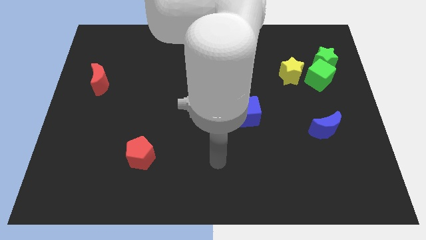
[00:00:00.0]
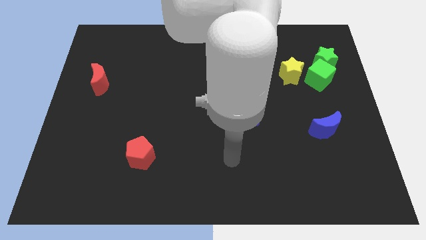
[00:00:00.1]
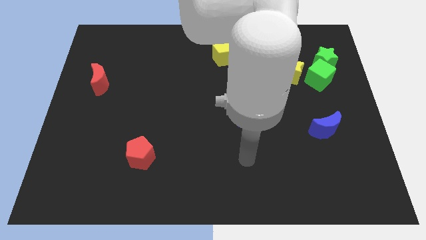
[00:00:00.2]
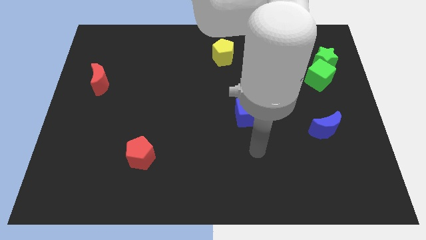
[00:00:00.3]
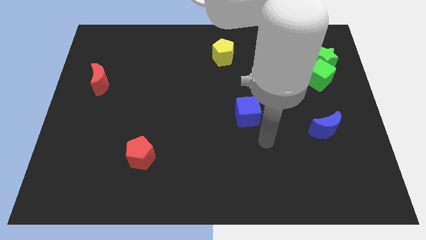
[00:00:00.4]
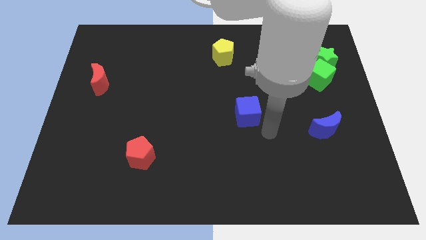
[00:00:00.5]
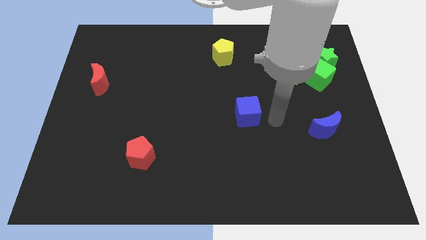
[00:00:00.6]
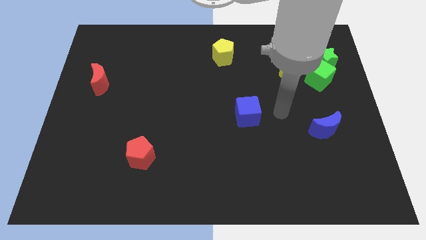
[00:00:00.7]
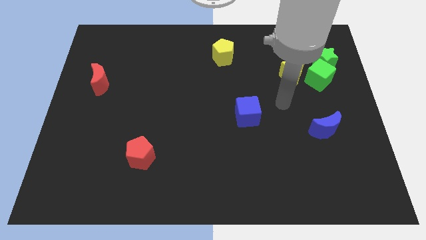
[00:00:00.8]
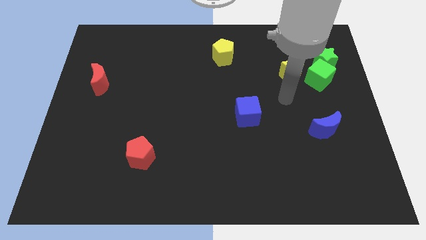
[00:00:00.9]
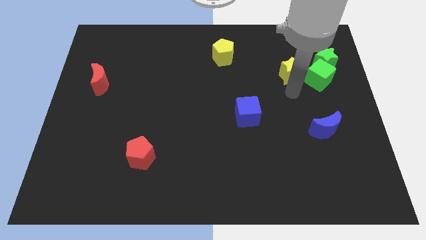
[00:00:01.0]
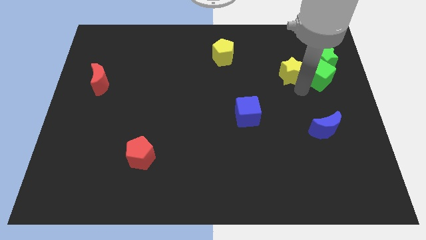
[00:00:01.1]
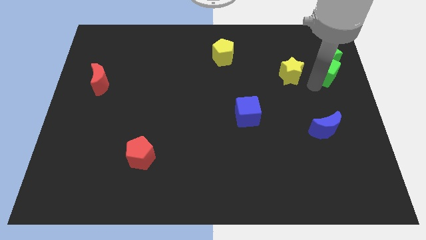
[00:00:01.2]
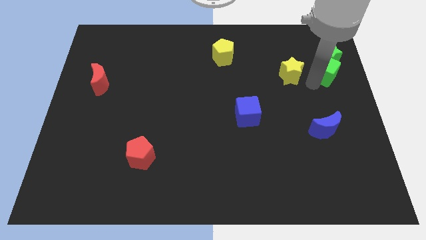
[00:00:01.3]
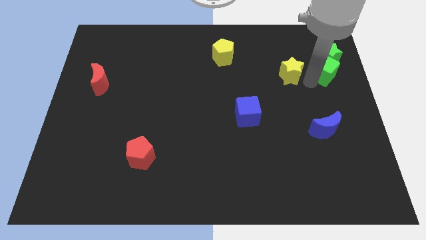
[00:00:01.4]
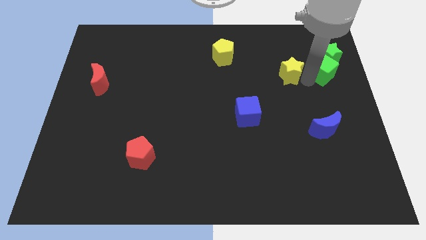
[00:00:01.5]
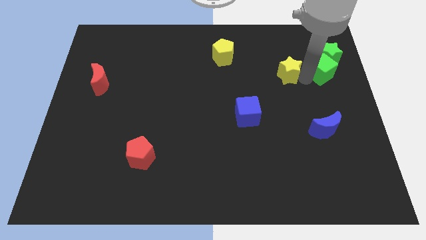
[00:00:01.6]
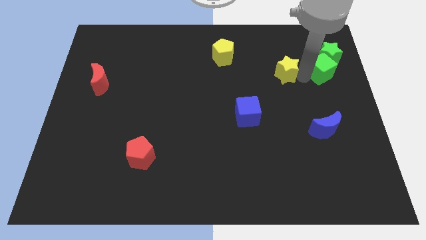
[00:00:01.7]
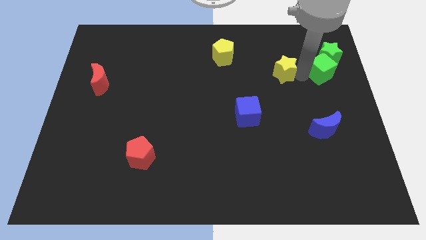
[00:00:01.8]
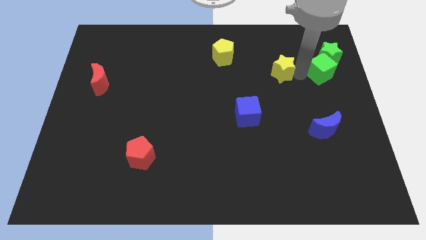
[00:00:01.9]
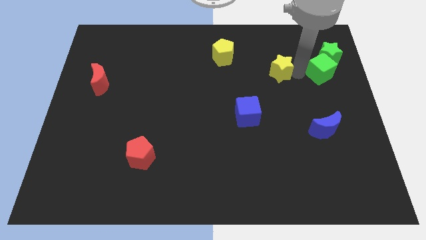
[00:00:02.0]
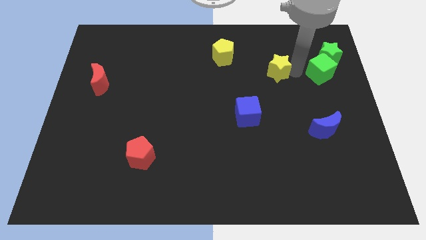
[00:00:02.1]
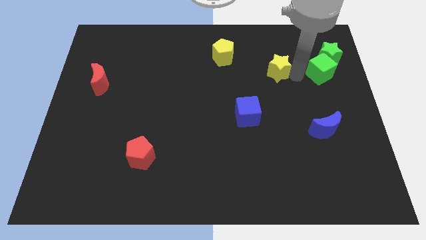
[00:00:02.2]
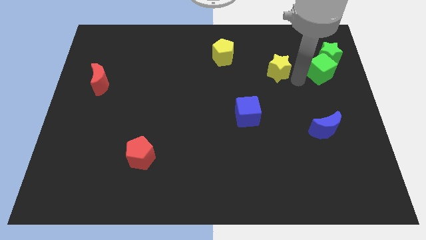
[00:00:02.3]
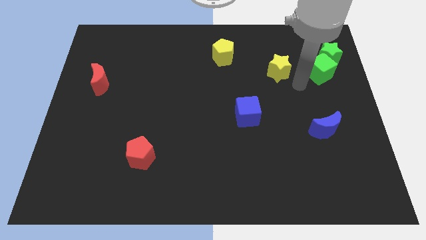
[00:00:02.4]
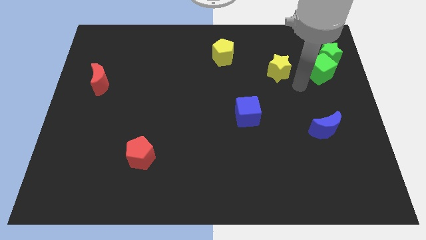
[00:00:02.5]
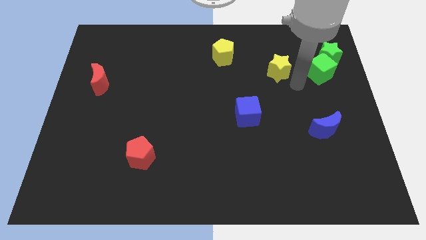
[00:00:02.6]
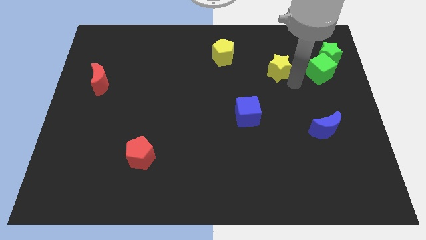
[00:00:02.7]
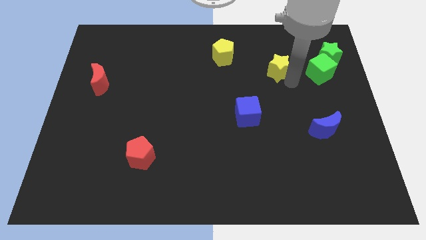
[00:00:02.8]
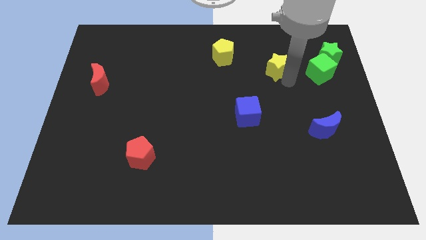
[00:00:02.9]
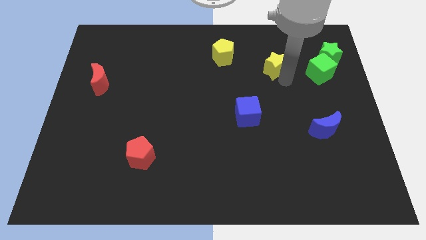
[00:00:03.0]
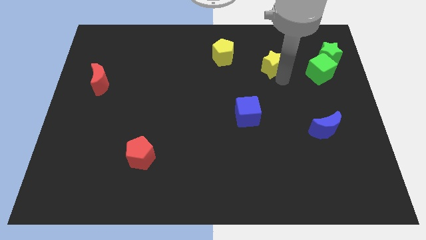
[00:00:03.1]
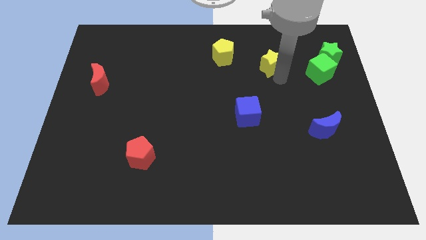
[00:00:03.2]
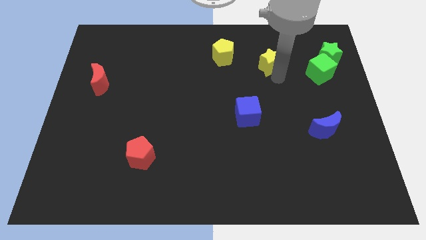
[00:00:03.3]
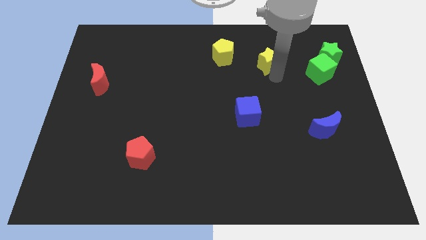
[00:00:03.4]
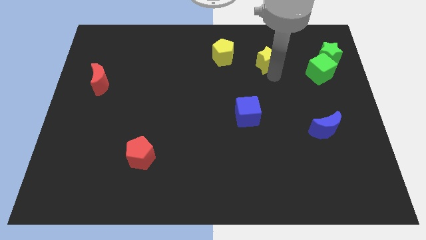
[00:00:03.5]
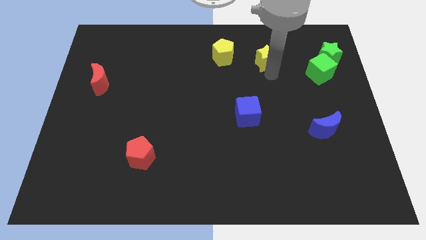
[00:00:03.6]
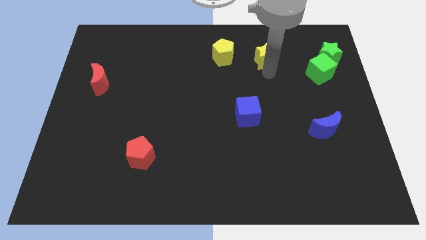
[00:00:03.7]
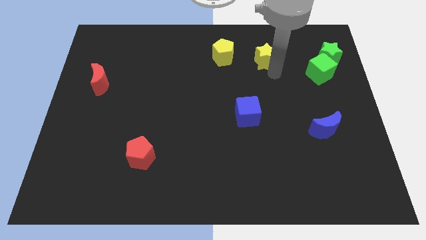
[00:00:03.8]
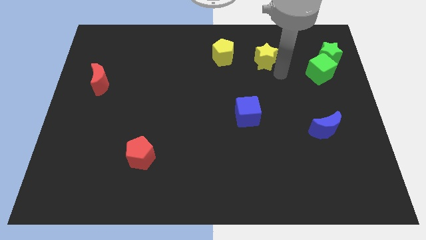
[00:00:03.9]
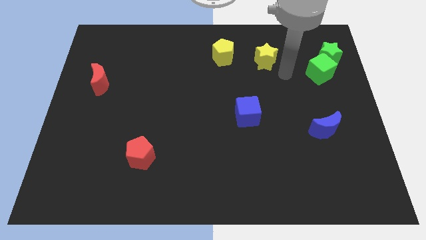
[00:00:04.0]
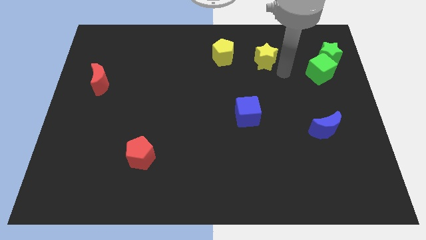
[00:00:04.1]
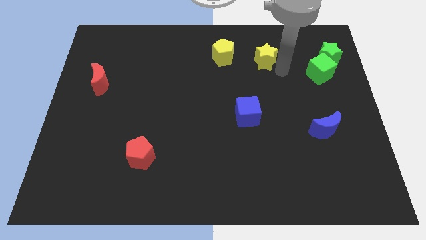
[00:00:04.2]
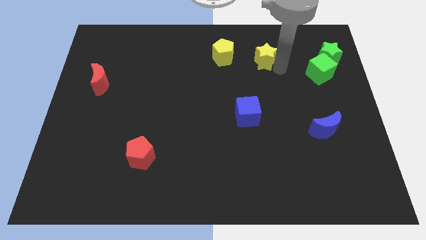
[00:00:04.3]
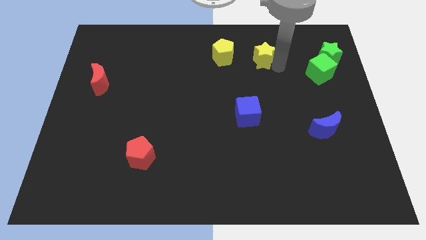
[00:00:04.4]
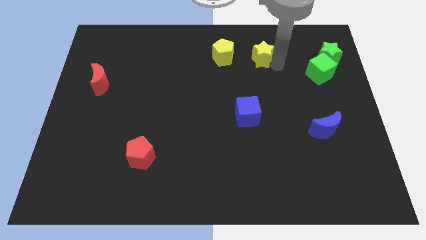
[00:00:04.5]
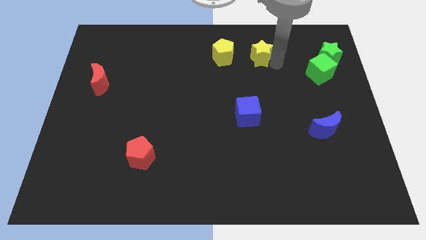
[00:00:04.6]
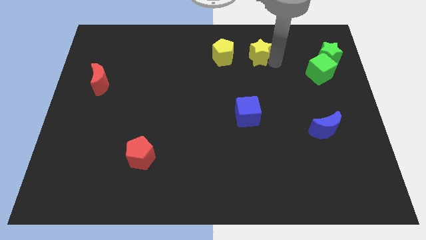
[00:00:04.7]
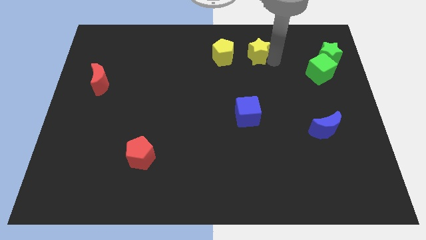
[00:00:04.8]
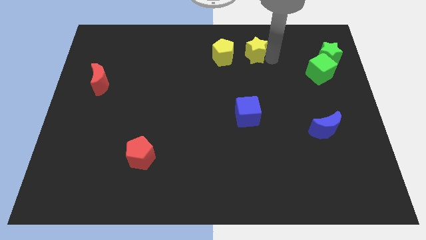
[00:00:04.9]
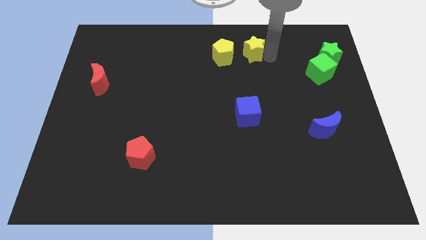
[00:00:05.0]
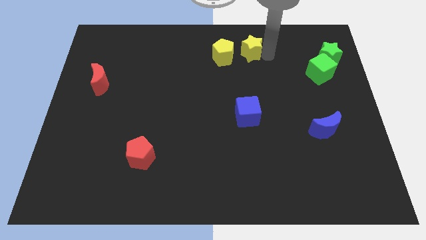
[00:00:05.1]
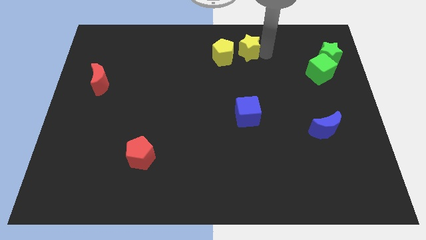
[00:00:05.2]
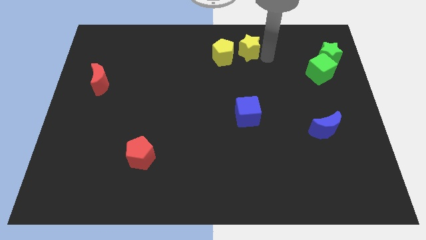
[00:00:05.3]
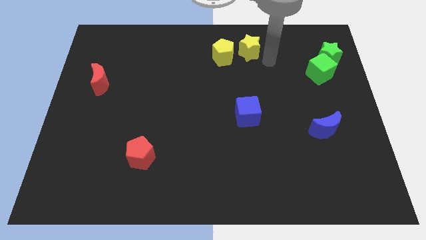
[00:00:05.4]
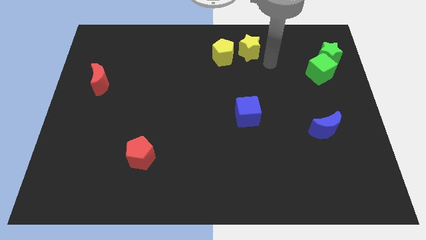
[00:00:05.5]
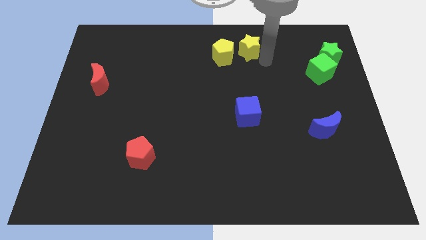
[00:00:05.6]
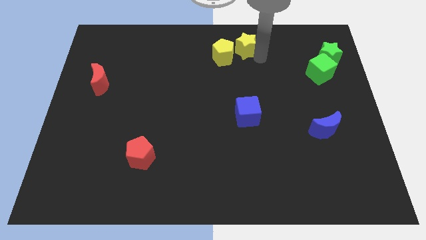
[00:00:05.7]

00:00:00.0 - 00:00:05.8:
slide the yellow star to the towards your base

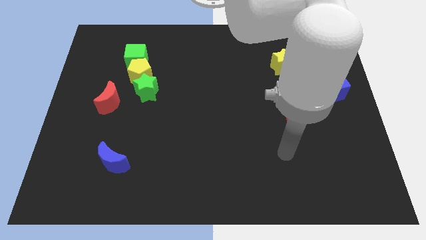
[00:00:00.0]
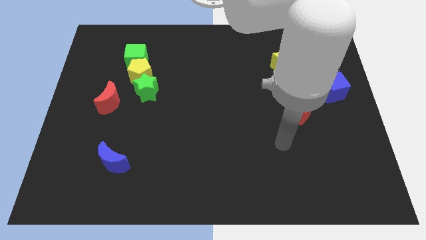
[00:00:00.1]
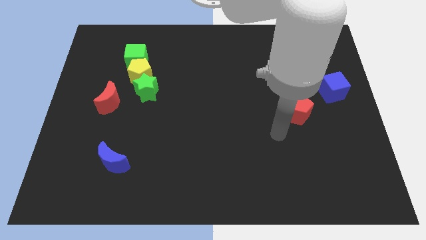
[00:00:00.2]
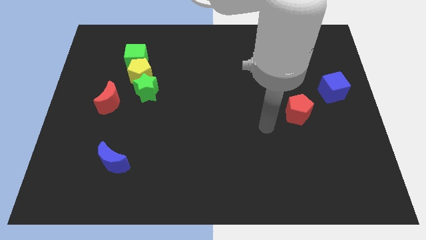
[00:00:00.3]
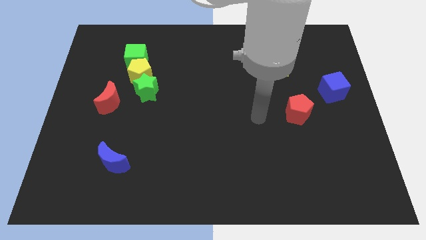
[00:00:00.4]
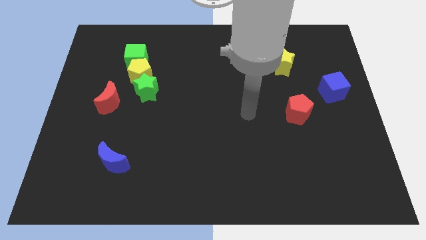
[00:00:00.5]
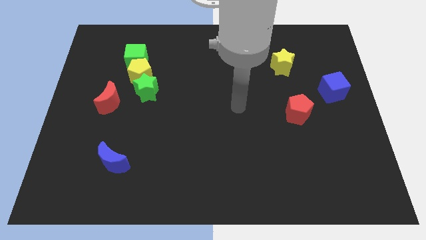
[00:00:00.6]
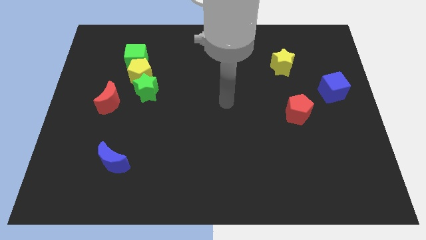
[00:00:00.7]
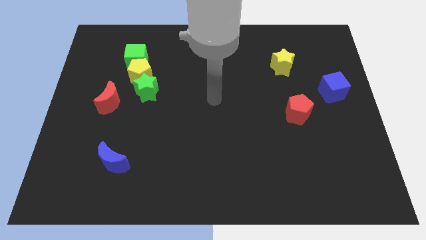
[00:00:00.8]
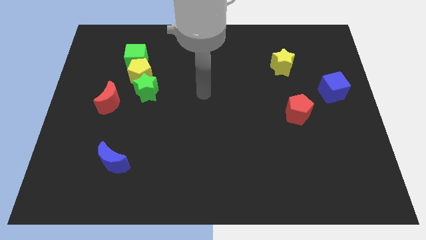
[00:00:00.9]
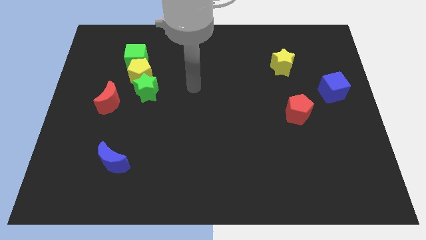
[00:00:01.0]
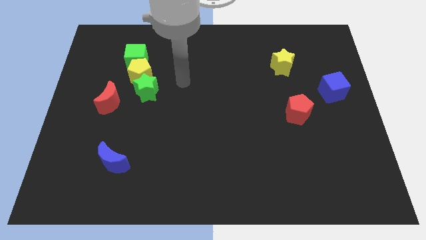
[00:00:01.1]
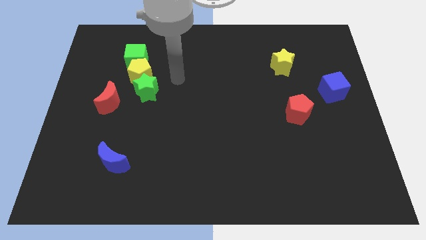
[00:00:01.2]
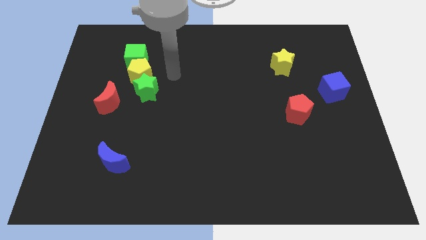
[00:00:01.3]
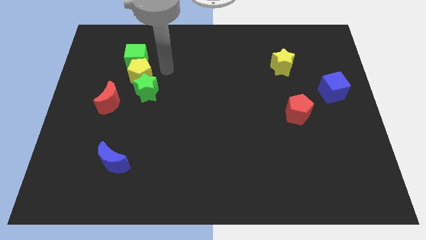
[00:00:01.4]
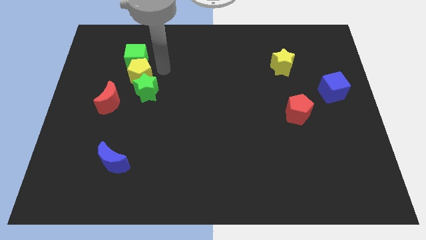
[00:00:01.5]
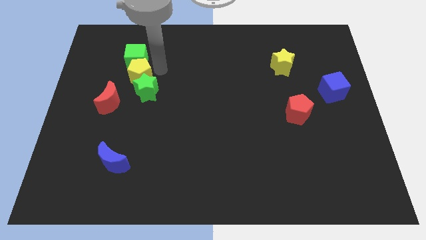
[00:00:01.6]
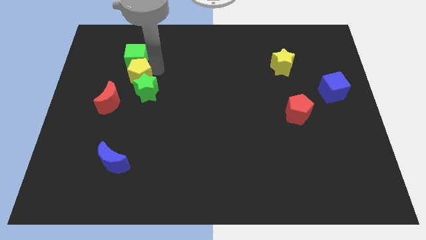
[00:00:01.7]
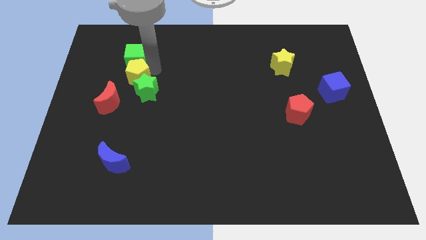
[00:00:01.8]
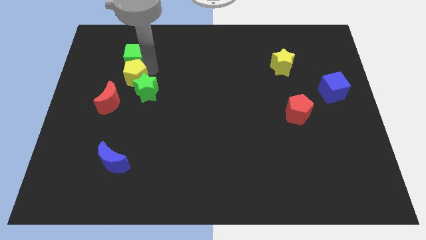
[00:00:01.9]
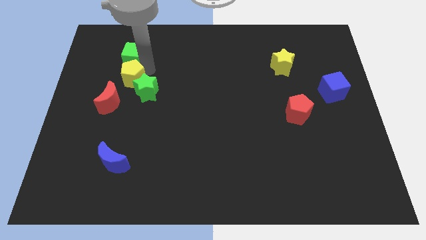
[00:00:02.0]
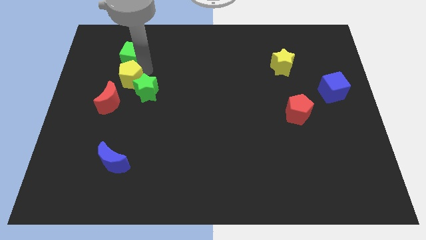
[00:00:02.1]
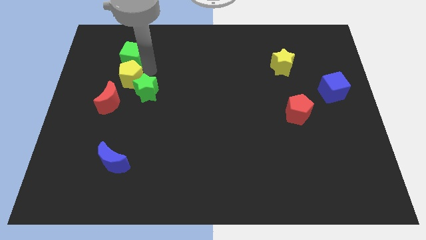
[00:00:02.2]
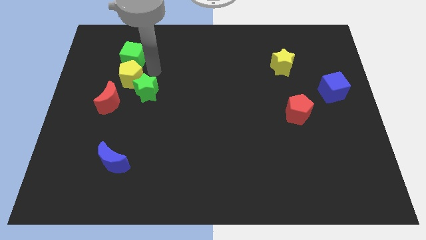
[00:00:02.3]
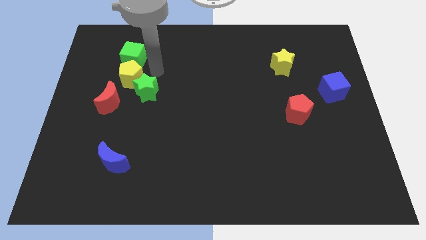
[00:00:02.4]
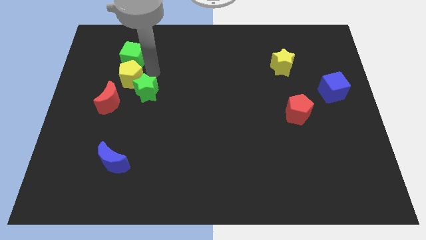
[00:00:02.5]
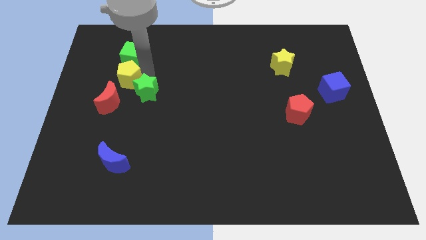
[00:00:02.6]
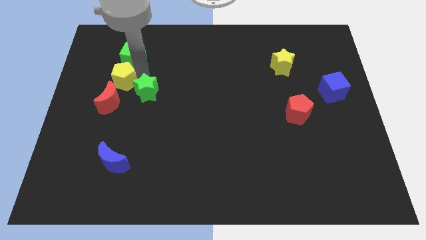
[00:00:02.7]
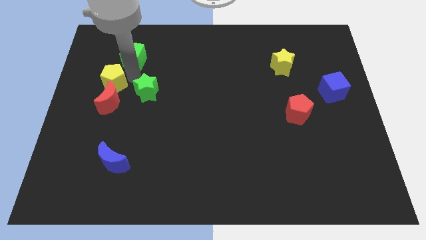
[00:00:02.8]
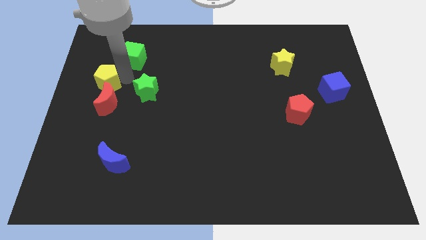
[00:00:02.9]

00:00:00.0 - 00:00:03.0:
slide the yellow pentagon to the left side of the board
